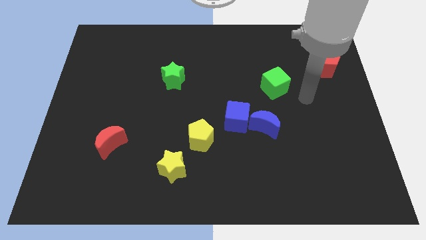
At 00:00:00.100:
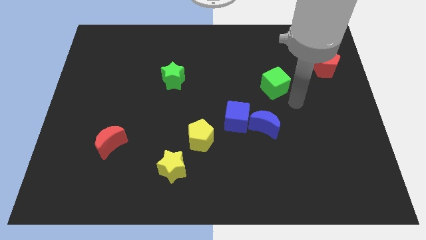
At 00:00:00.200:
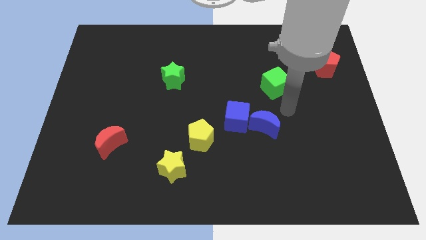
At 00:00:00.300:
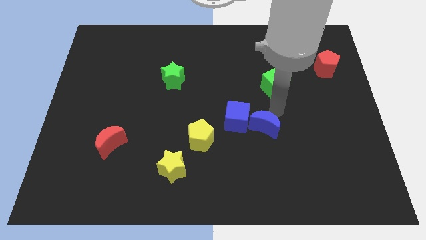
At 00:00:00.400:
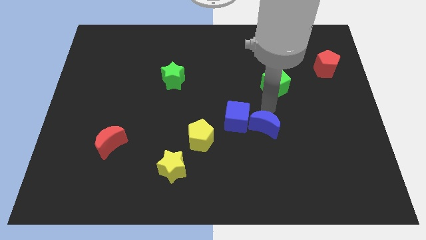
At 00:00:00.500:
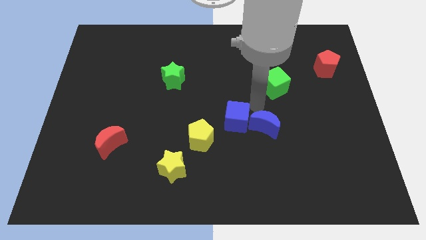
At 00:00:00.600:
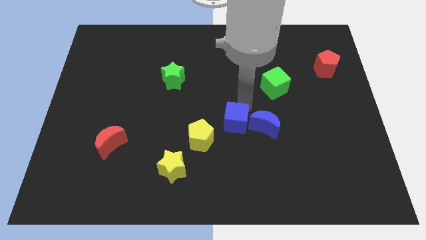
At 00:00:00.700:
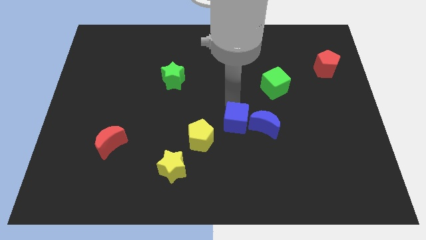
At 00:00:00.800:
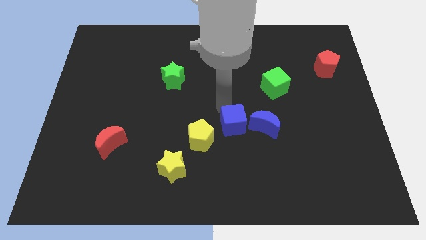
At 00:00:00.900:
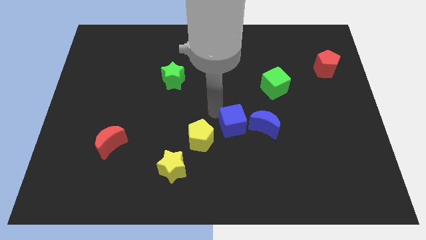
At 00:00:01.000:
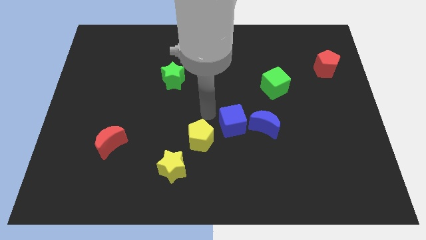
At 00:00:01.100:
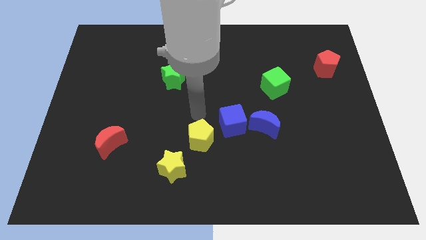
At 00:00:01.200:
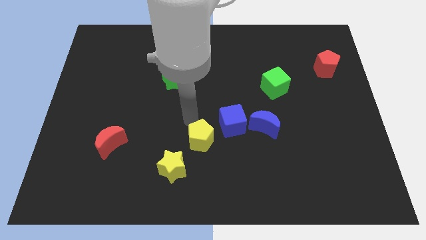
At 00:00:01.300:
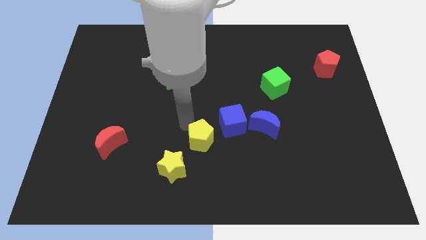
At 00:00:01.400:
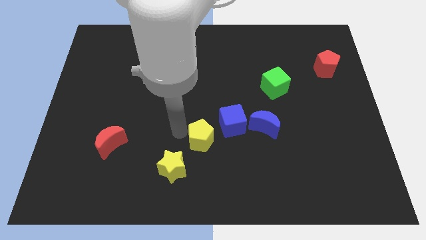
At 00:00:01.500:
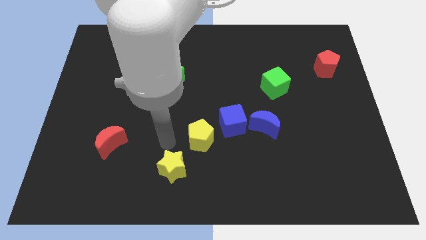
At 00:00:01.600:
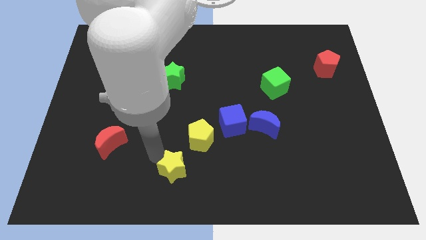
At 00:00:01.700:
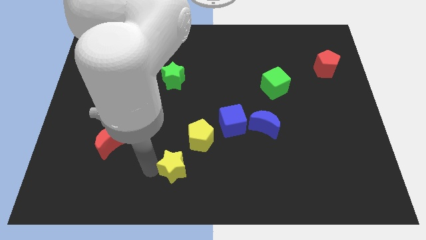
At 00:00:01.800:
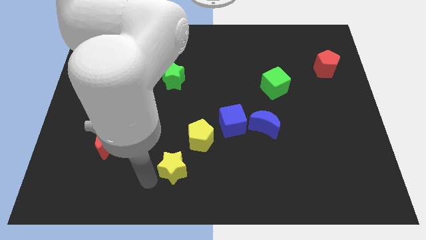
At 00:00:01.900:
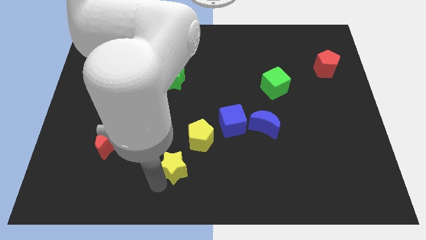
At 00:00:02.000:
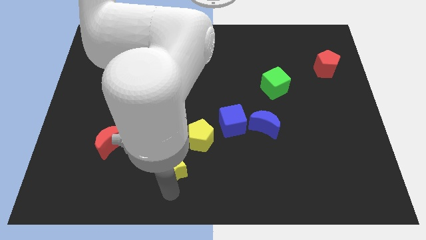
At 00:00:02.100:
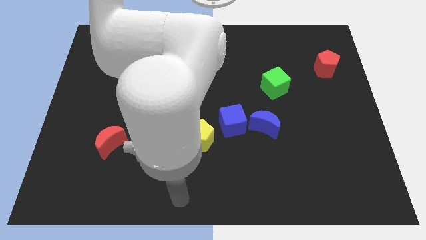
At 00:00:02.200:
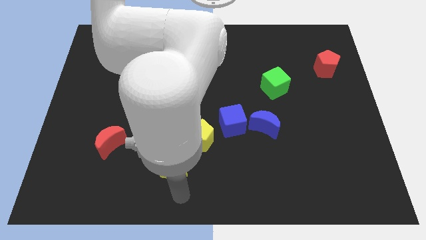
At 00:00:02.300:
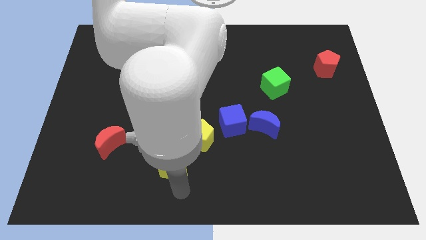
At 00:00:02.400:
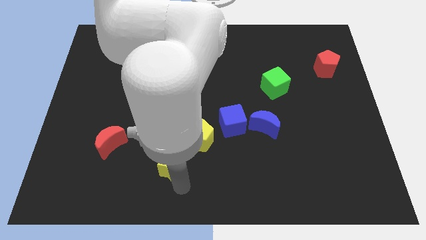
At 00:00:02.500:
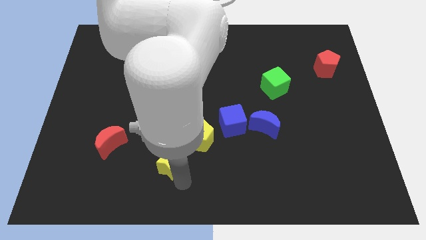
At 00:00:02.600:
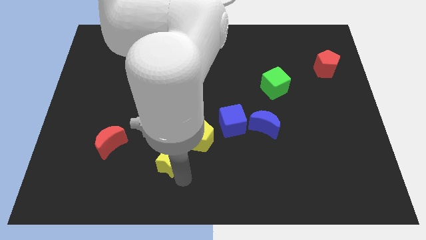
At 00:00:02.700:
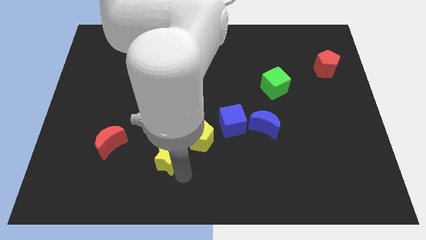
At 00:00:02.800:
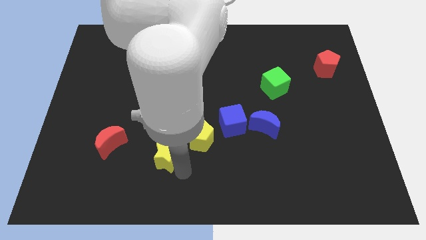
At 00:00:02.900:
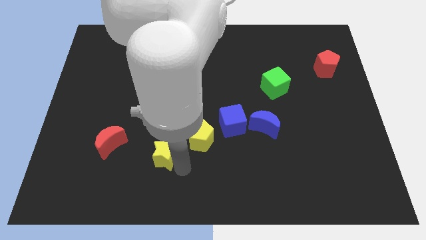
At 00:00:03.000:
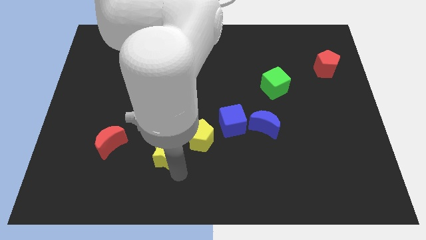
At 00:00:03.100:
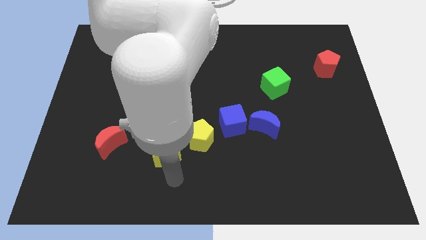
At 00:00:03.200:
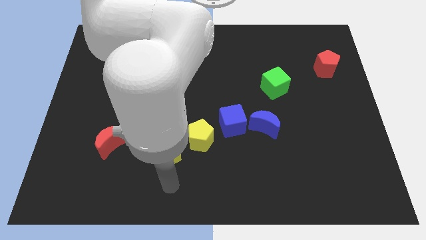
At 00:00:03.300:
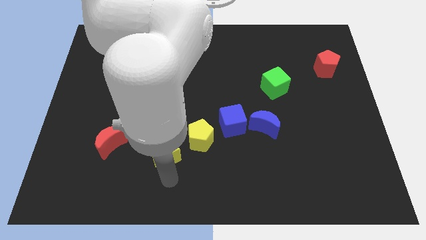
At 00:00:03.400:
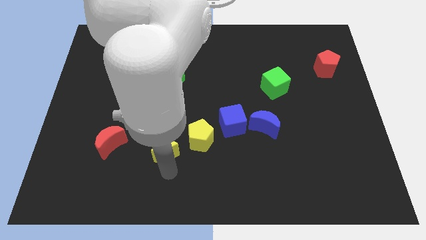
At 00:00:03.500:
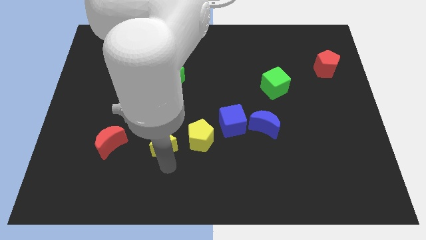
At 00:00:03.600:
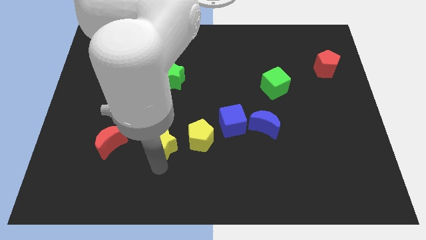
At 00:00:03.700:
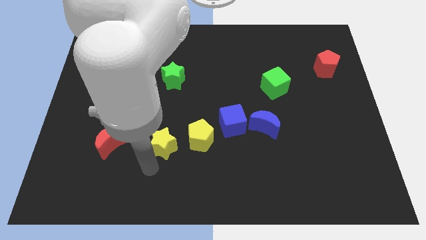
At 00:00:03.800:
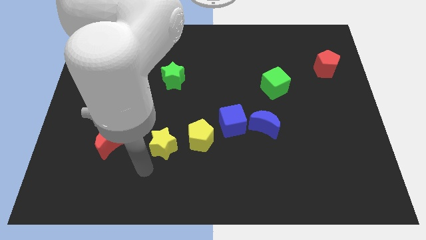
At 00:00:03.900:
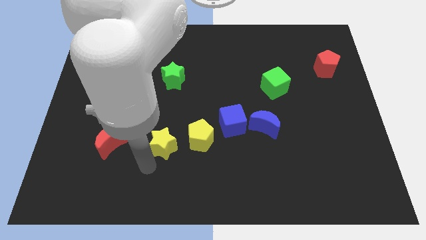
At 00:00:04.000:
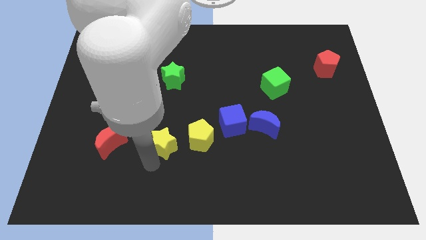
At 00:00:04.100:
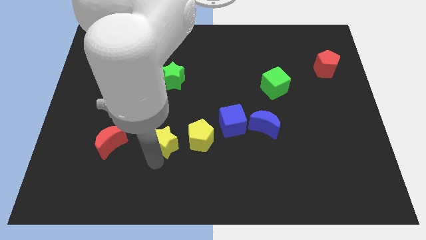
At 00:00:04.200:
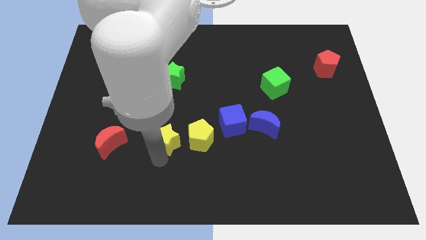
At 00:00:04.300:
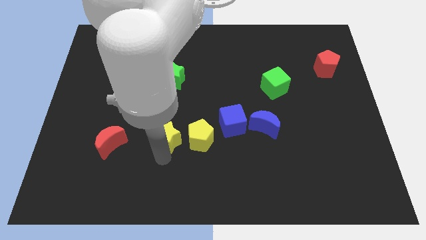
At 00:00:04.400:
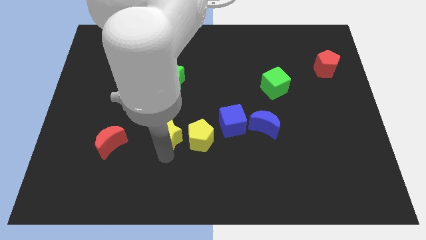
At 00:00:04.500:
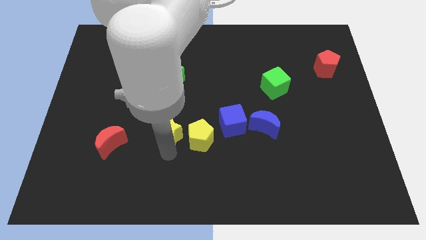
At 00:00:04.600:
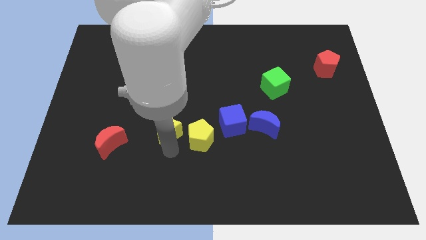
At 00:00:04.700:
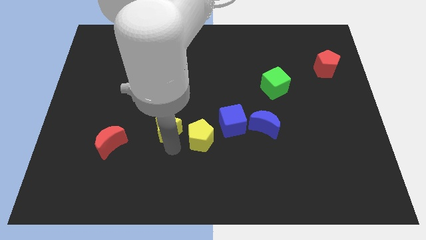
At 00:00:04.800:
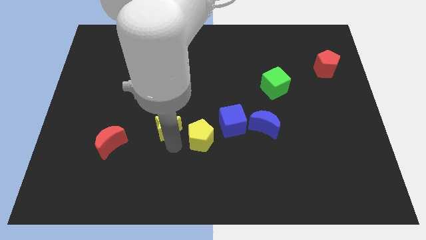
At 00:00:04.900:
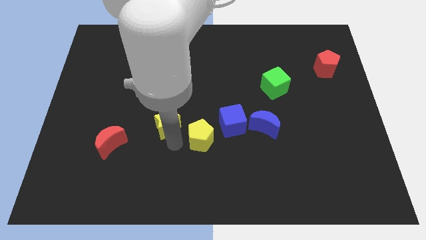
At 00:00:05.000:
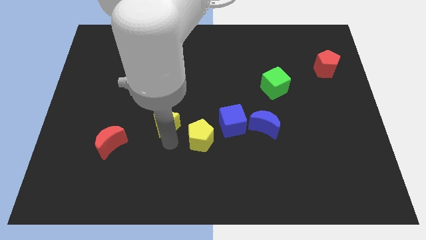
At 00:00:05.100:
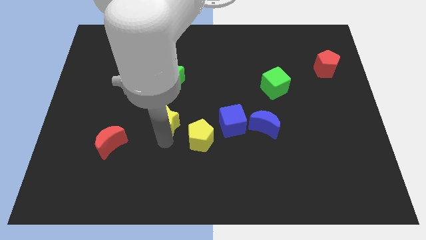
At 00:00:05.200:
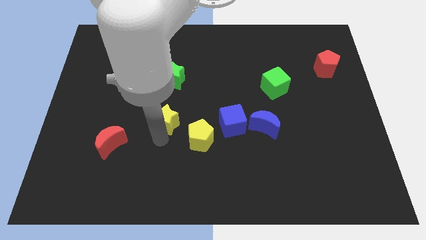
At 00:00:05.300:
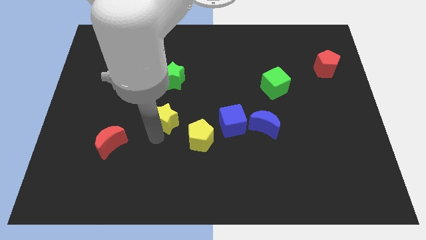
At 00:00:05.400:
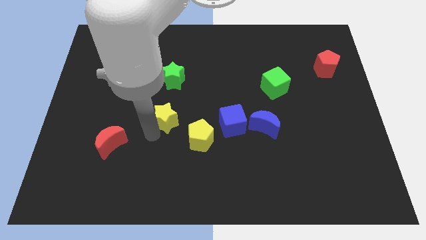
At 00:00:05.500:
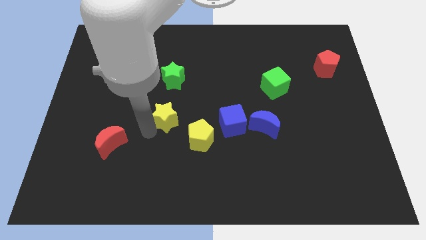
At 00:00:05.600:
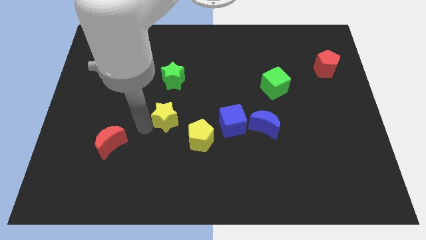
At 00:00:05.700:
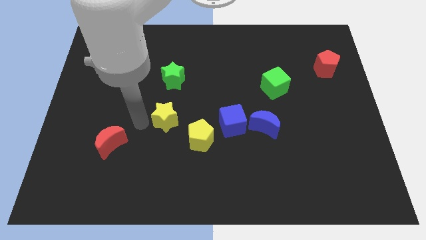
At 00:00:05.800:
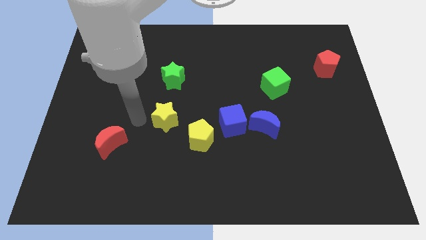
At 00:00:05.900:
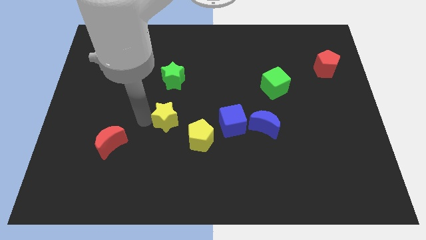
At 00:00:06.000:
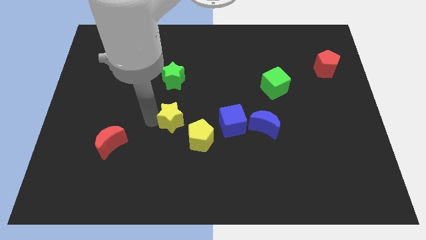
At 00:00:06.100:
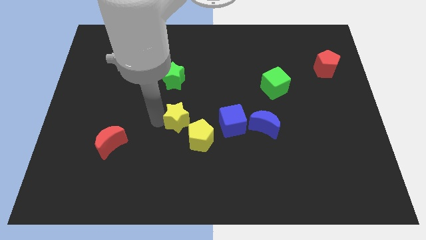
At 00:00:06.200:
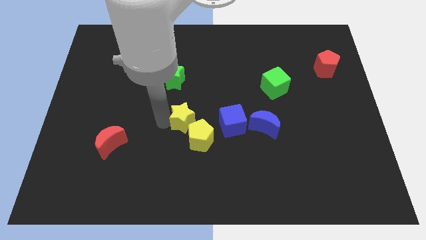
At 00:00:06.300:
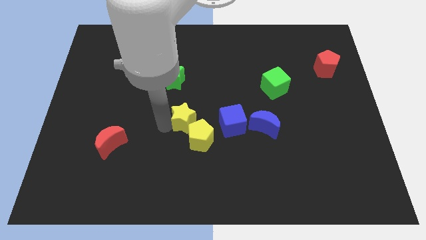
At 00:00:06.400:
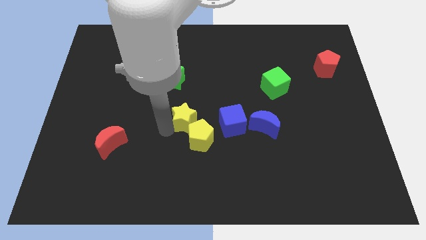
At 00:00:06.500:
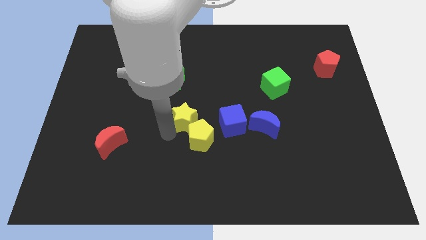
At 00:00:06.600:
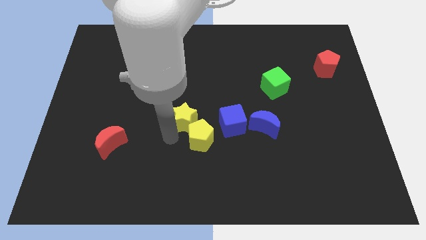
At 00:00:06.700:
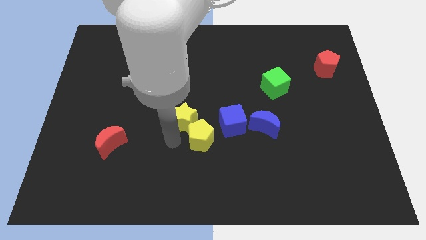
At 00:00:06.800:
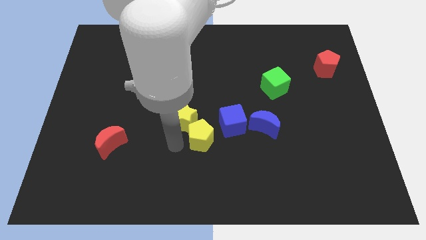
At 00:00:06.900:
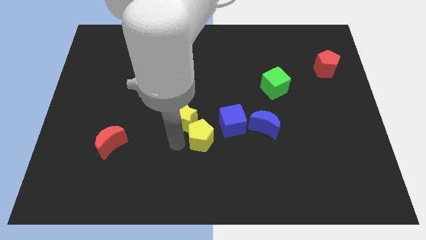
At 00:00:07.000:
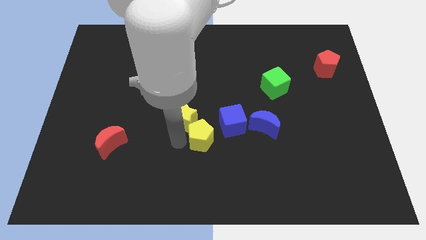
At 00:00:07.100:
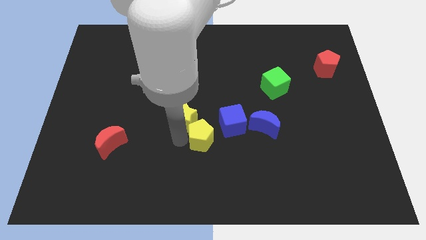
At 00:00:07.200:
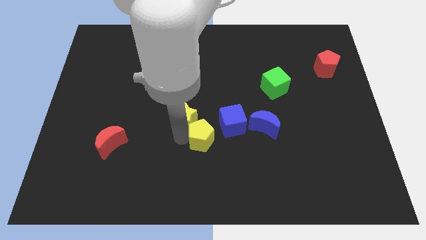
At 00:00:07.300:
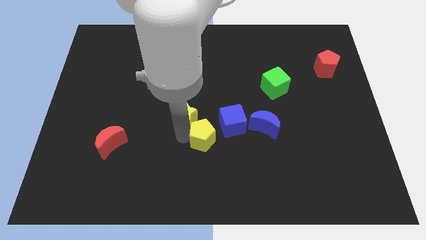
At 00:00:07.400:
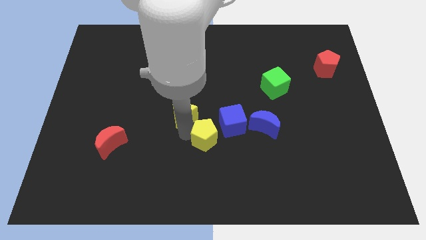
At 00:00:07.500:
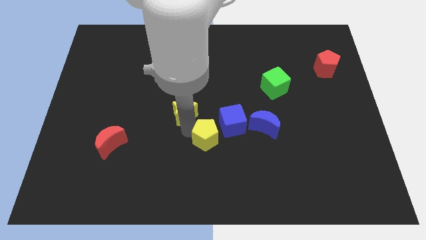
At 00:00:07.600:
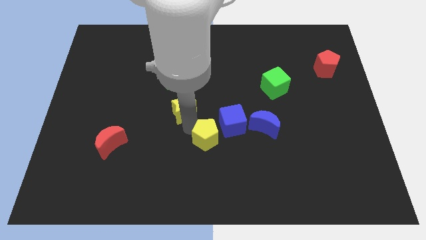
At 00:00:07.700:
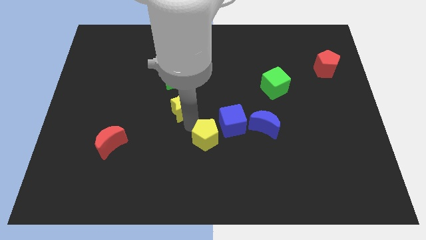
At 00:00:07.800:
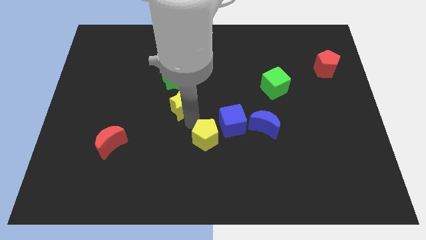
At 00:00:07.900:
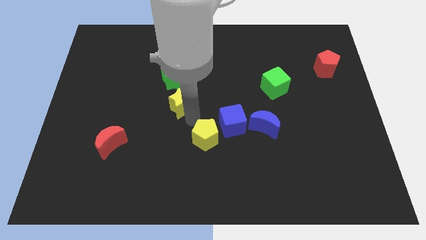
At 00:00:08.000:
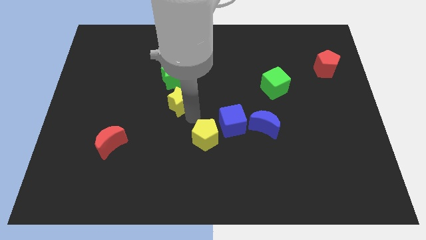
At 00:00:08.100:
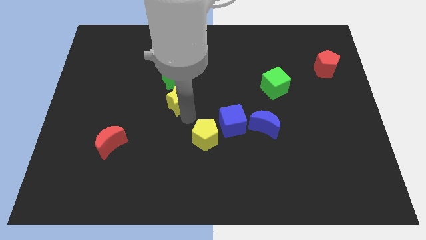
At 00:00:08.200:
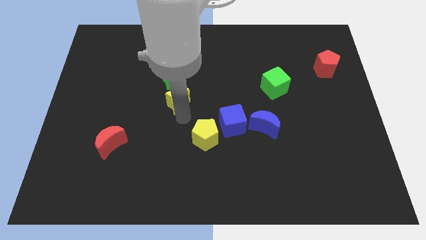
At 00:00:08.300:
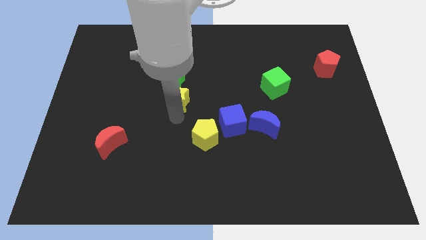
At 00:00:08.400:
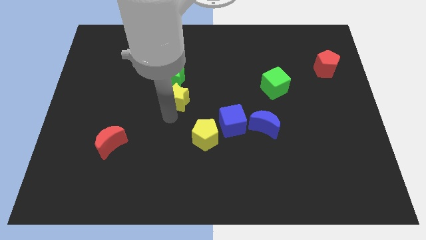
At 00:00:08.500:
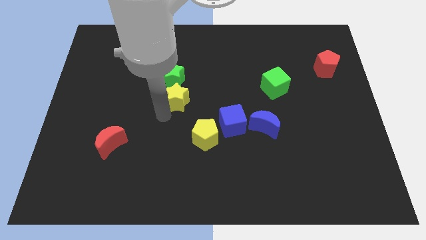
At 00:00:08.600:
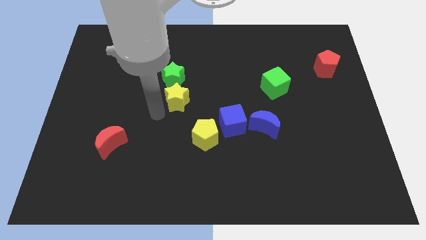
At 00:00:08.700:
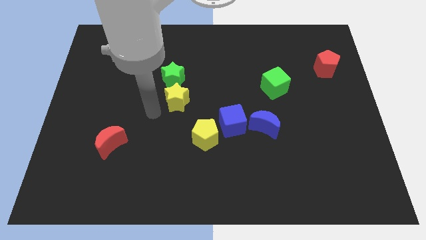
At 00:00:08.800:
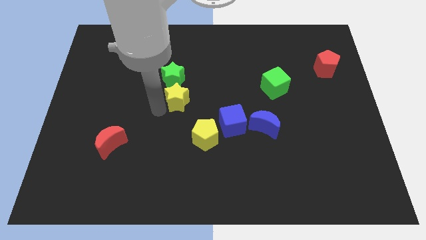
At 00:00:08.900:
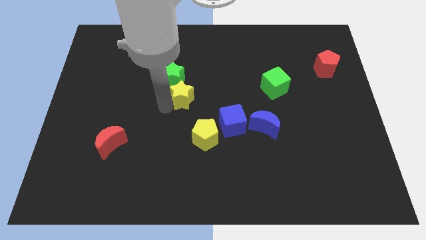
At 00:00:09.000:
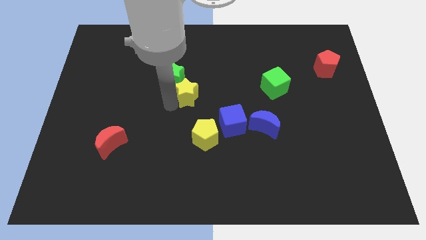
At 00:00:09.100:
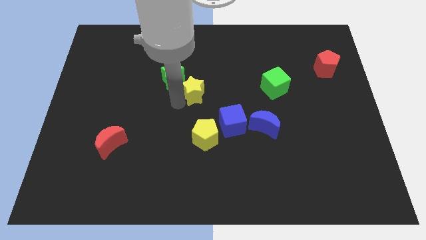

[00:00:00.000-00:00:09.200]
push the yellow star up
